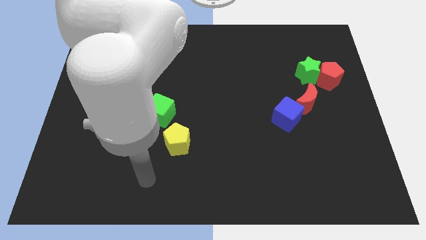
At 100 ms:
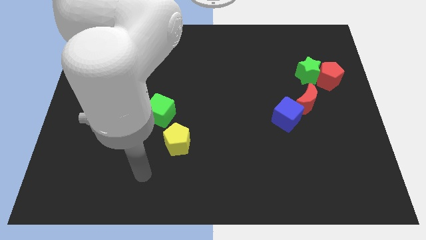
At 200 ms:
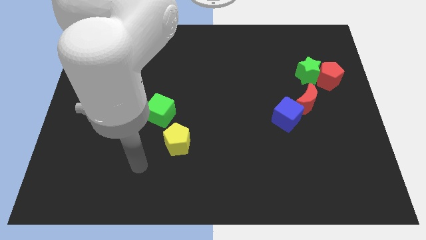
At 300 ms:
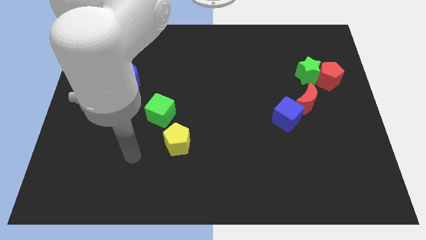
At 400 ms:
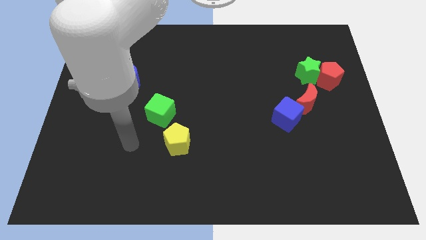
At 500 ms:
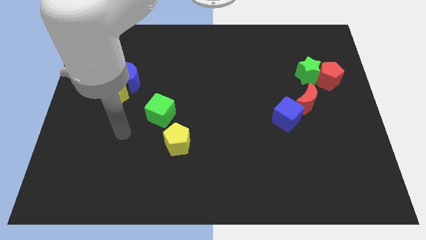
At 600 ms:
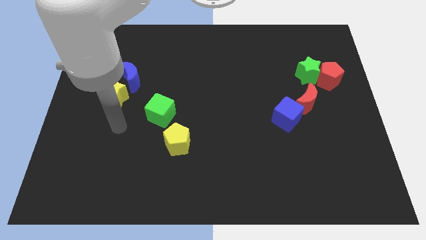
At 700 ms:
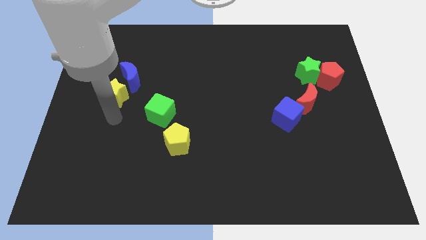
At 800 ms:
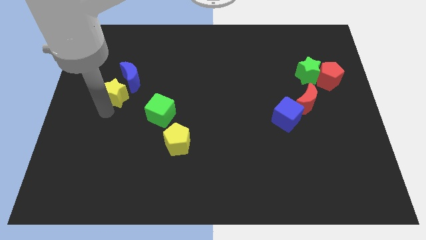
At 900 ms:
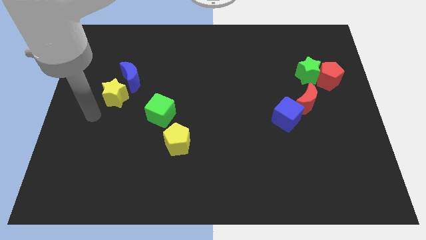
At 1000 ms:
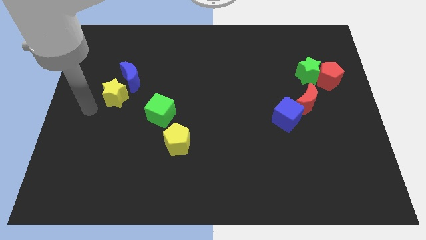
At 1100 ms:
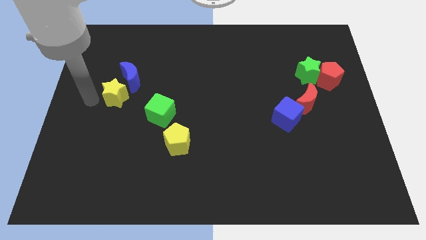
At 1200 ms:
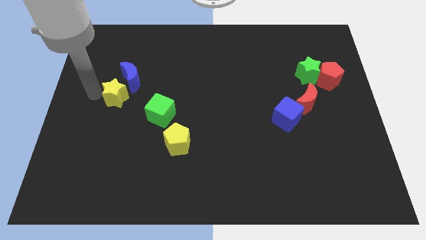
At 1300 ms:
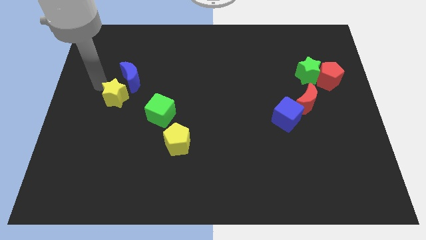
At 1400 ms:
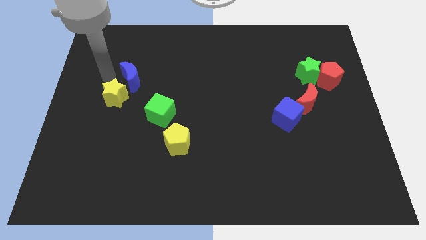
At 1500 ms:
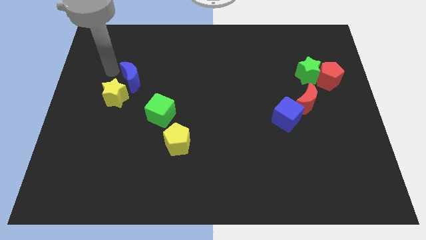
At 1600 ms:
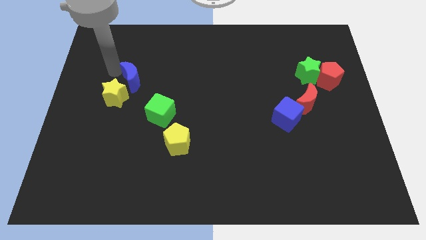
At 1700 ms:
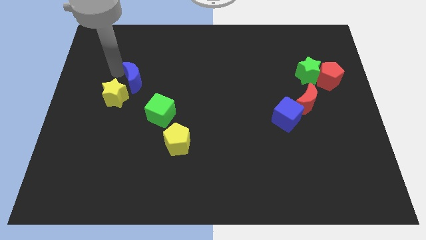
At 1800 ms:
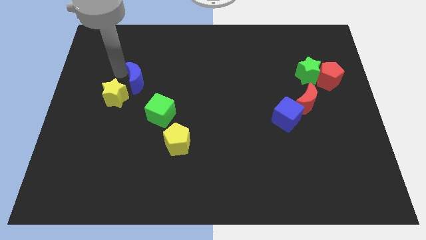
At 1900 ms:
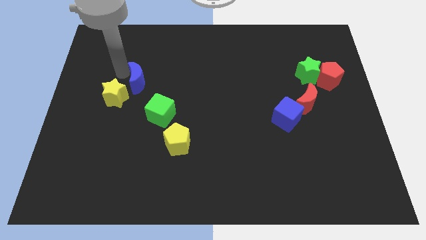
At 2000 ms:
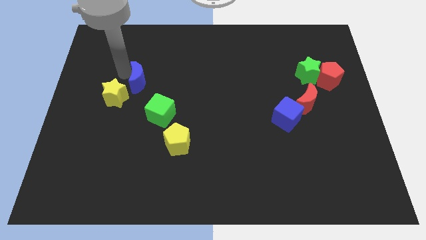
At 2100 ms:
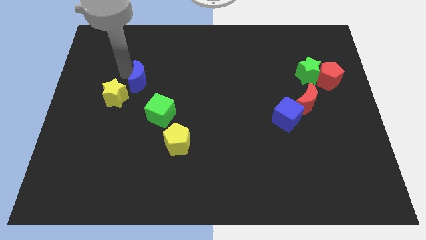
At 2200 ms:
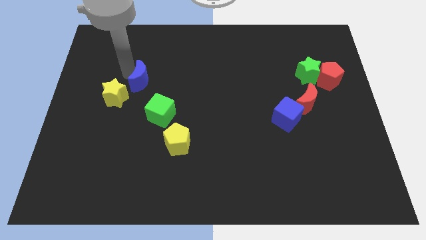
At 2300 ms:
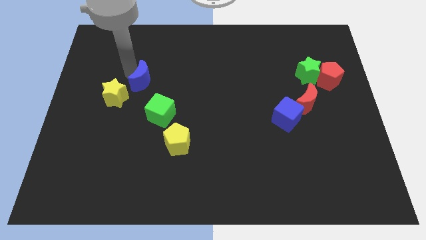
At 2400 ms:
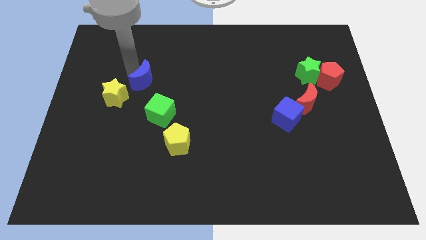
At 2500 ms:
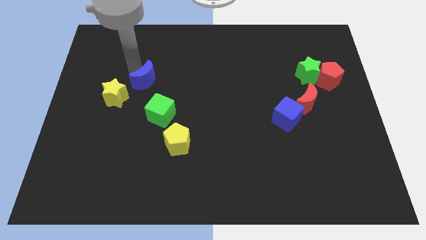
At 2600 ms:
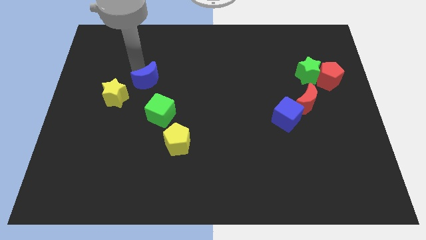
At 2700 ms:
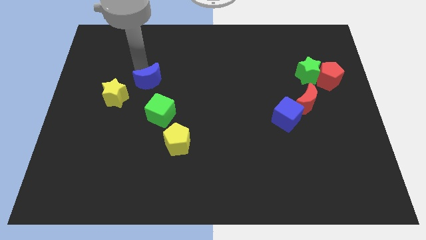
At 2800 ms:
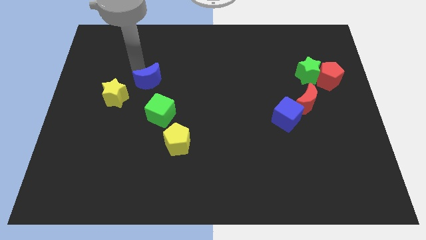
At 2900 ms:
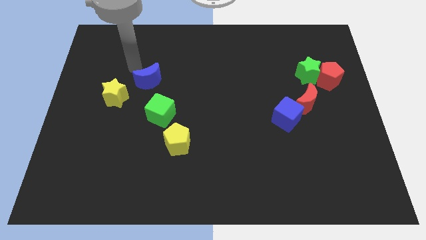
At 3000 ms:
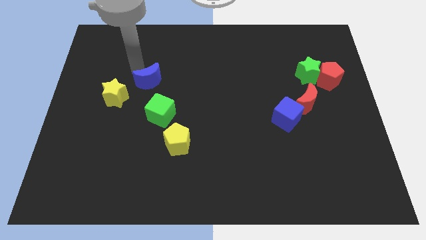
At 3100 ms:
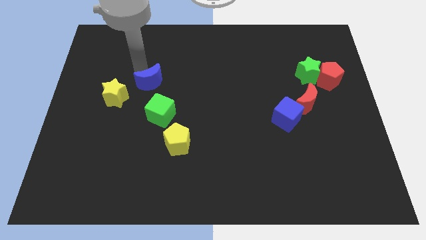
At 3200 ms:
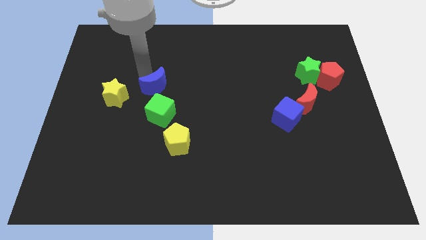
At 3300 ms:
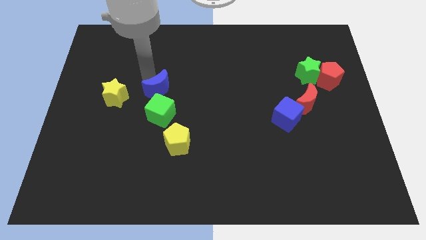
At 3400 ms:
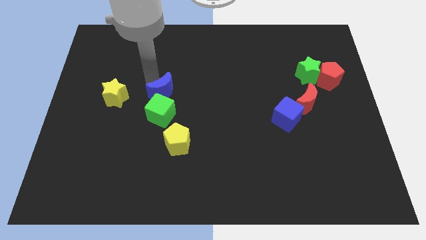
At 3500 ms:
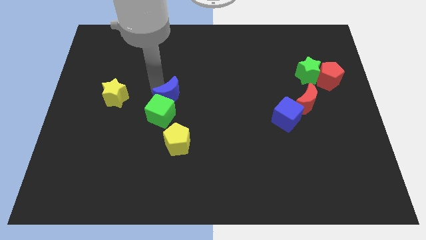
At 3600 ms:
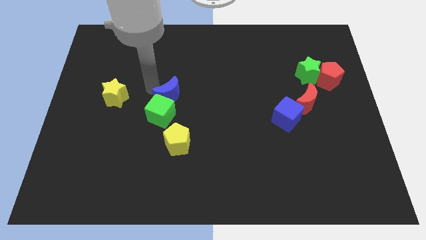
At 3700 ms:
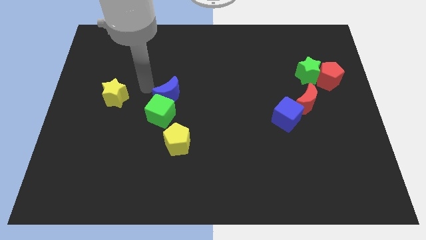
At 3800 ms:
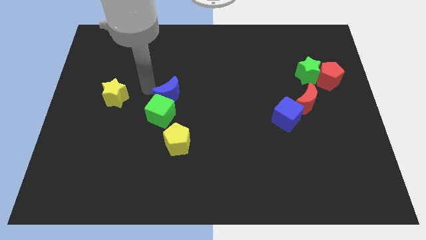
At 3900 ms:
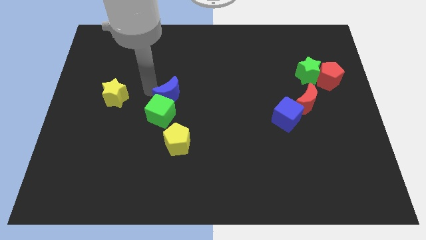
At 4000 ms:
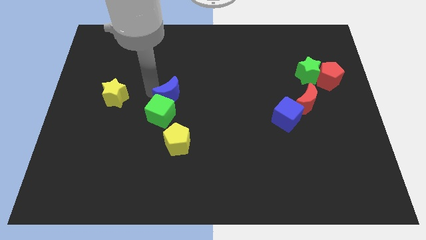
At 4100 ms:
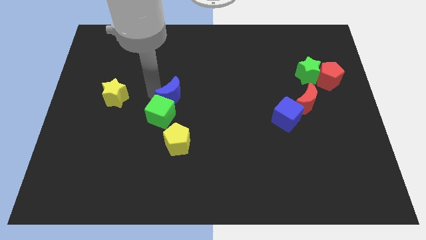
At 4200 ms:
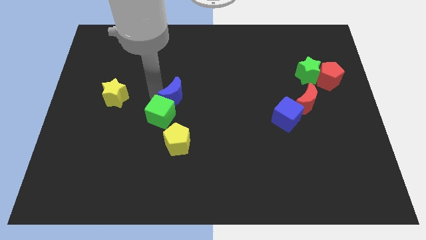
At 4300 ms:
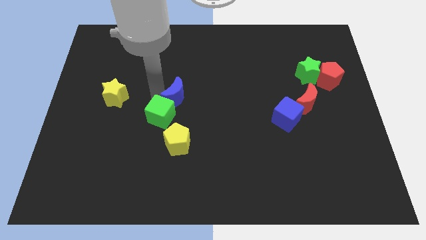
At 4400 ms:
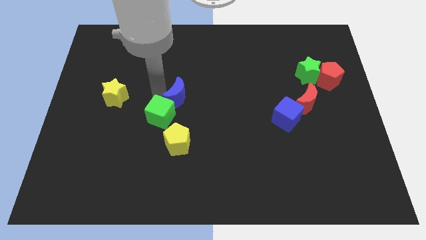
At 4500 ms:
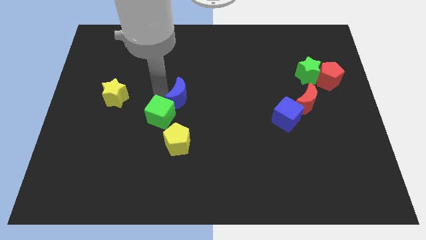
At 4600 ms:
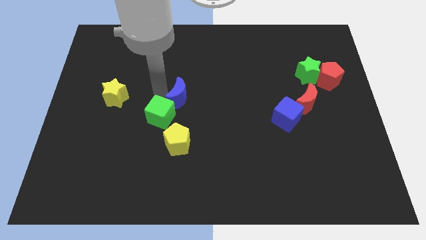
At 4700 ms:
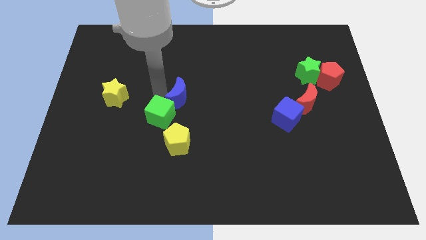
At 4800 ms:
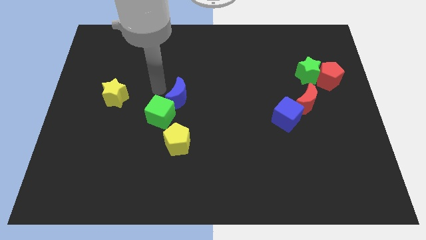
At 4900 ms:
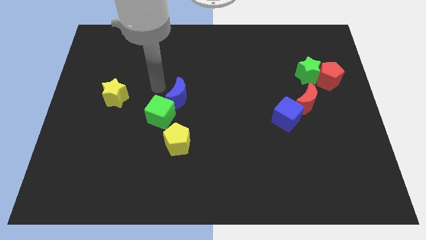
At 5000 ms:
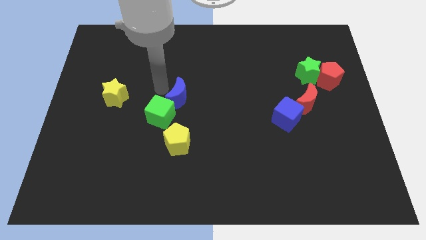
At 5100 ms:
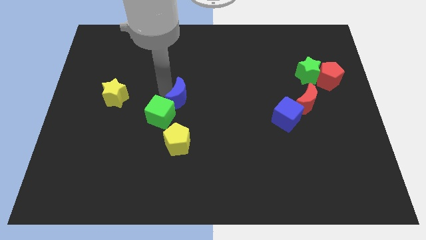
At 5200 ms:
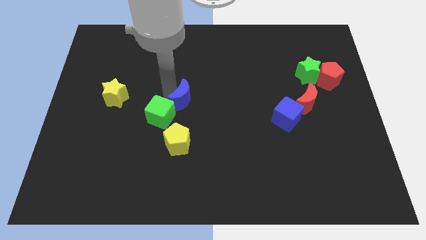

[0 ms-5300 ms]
move the blue moon right of the green cube

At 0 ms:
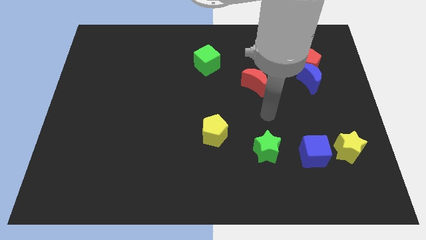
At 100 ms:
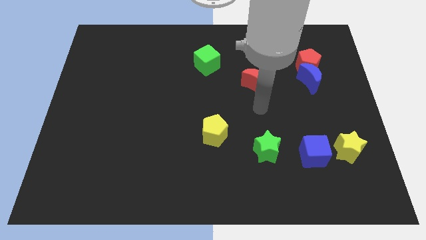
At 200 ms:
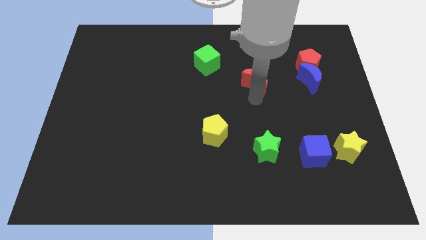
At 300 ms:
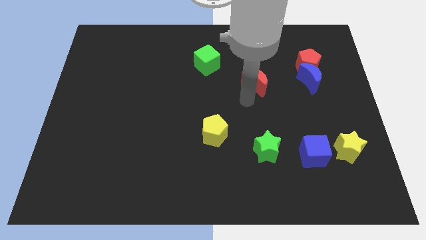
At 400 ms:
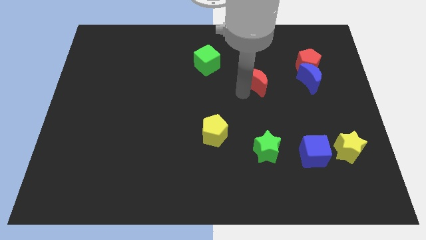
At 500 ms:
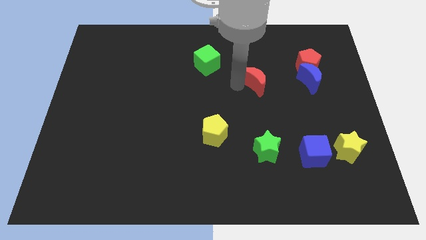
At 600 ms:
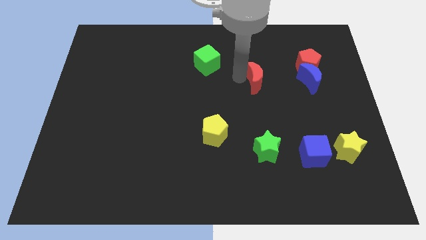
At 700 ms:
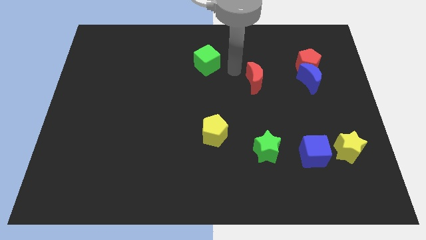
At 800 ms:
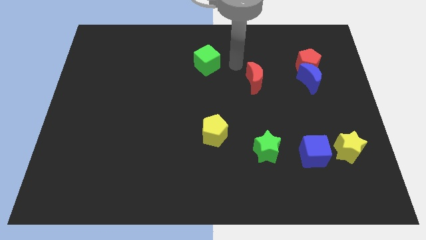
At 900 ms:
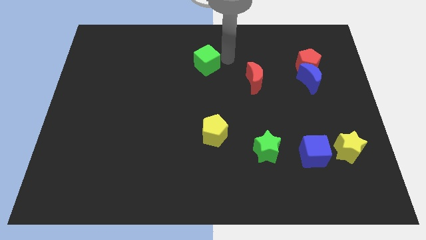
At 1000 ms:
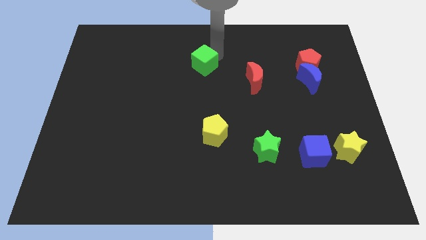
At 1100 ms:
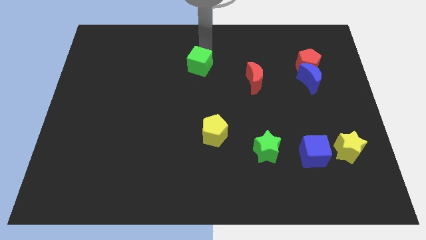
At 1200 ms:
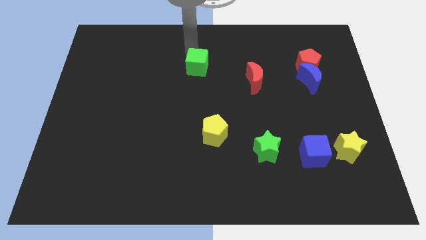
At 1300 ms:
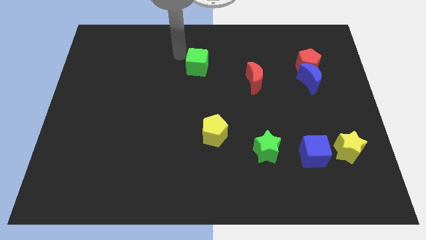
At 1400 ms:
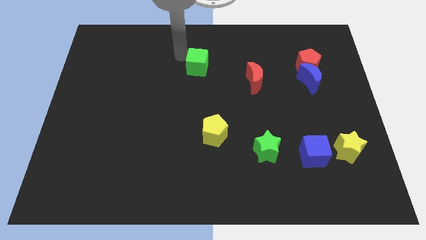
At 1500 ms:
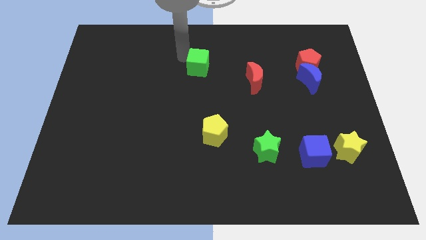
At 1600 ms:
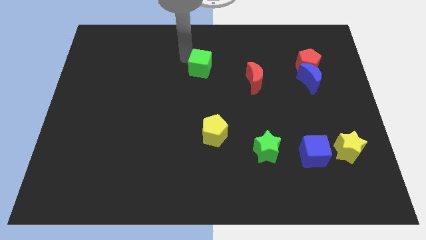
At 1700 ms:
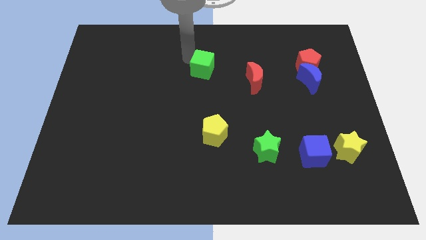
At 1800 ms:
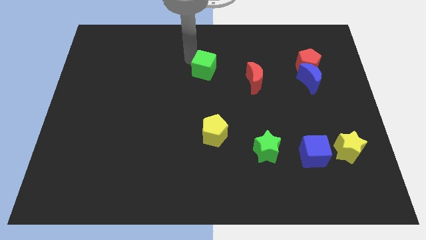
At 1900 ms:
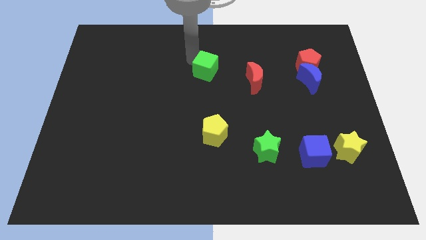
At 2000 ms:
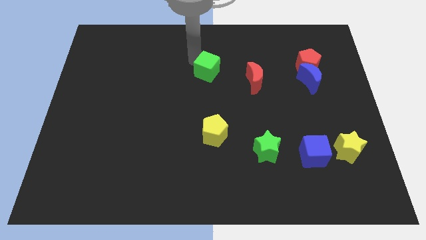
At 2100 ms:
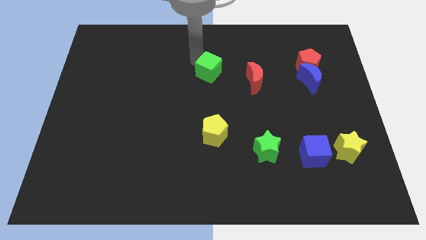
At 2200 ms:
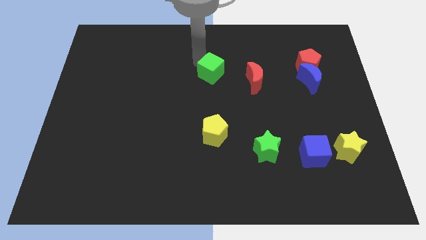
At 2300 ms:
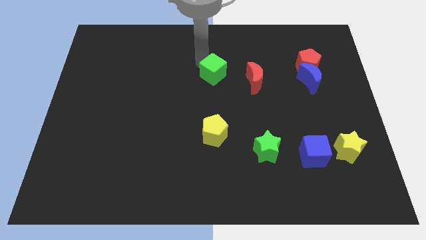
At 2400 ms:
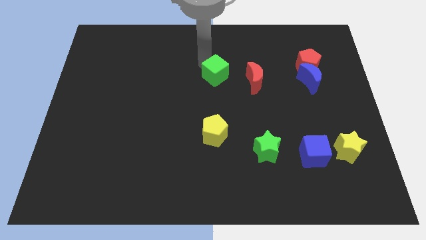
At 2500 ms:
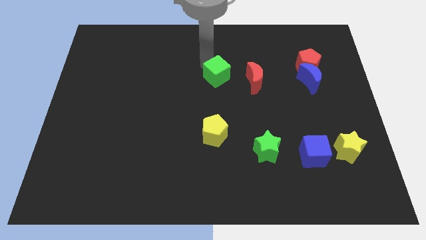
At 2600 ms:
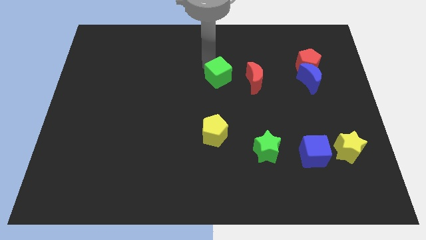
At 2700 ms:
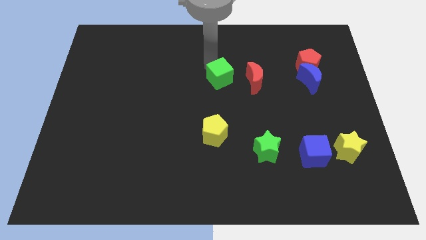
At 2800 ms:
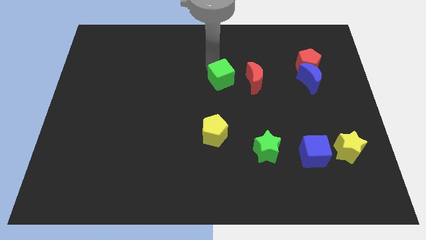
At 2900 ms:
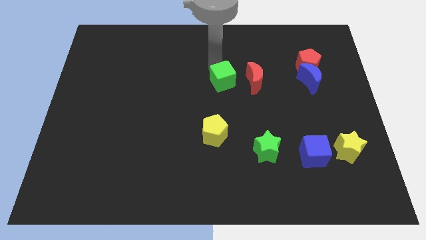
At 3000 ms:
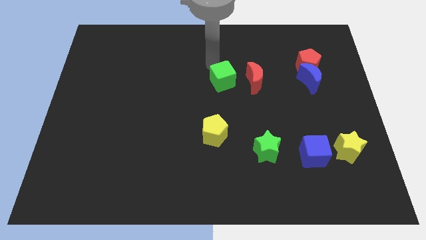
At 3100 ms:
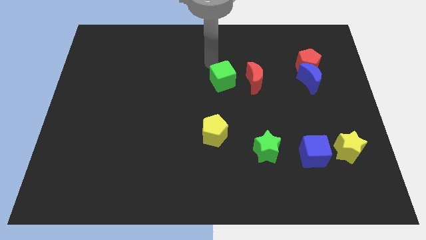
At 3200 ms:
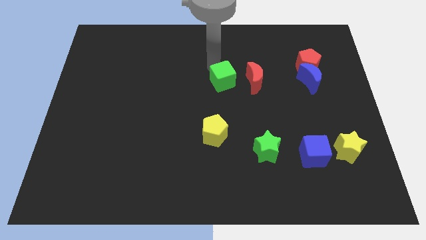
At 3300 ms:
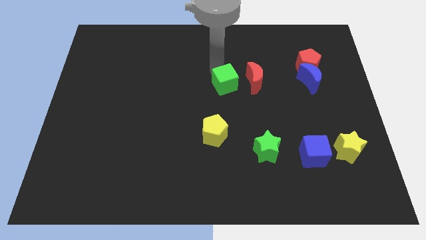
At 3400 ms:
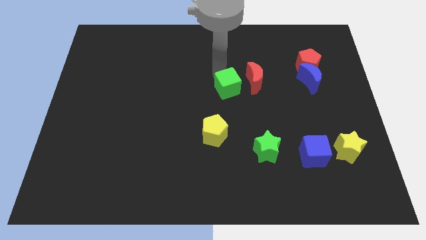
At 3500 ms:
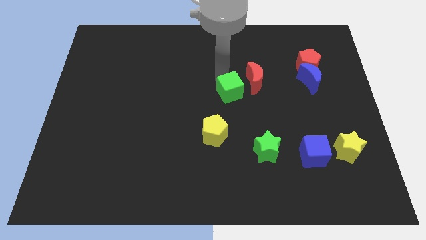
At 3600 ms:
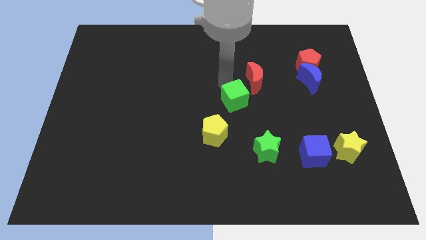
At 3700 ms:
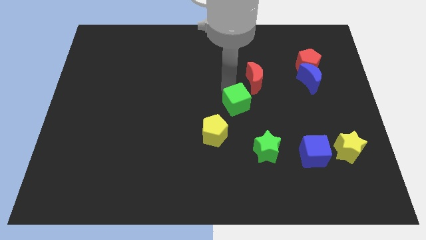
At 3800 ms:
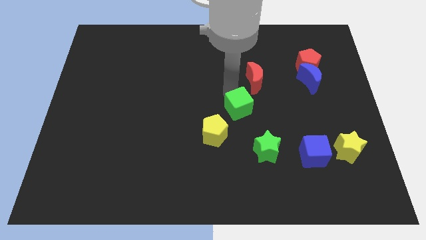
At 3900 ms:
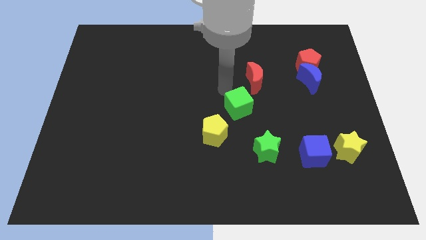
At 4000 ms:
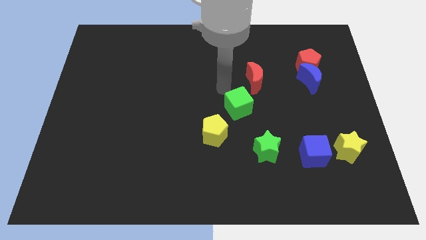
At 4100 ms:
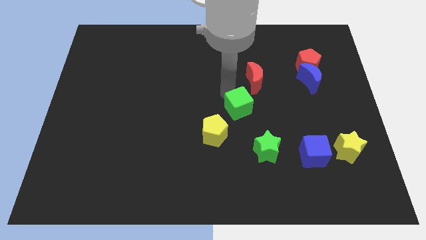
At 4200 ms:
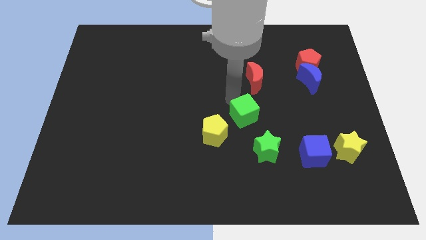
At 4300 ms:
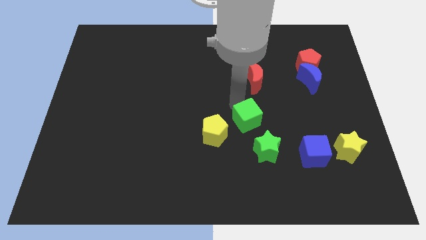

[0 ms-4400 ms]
put the green cube to the right of the yellow pentagon
